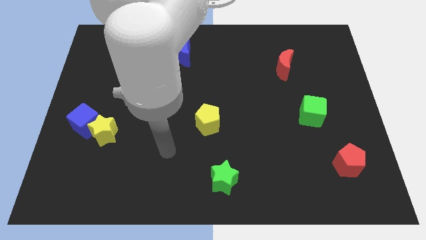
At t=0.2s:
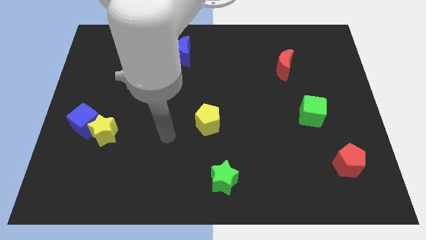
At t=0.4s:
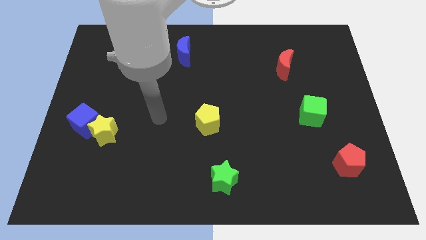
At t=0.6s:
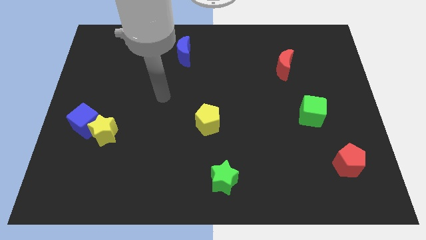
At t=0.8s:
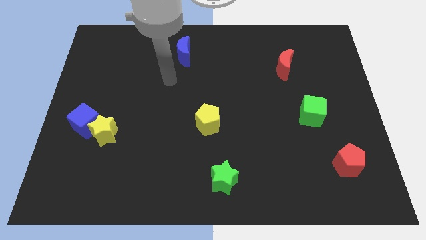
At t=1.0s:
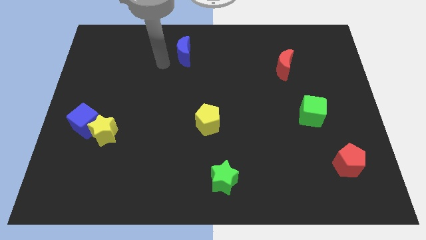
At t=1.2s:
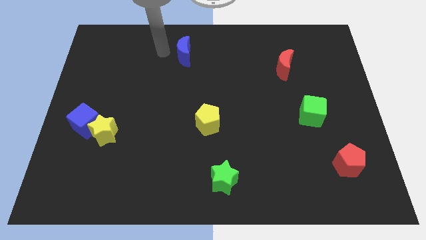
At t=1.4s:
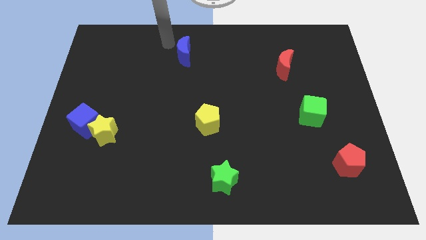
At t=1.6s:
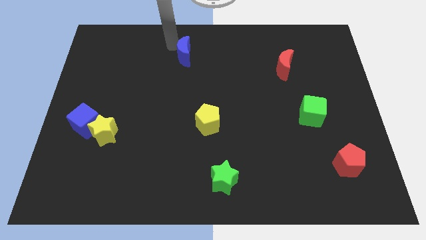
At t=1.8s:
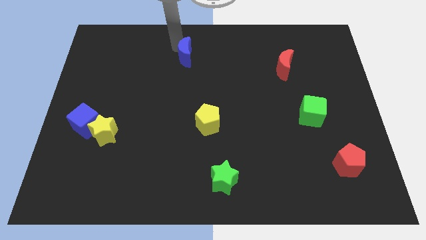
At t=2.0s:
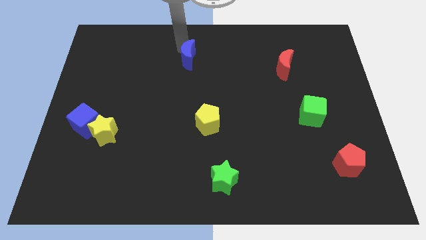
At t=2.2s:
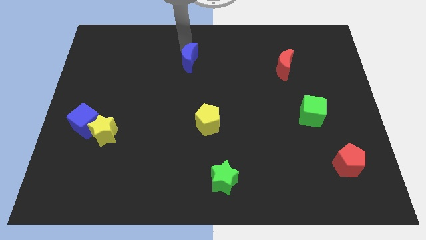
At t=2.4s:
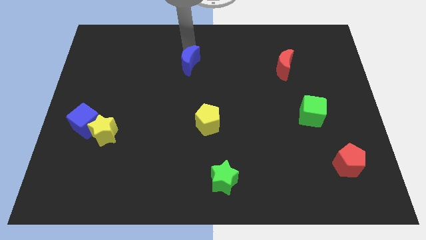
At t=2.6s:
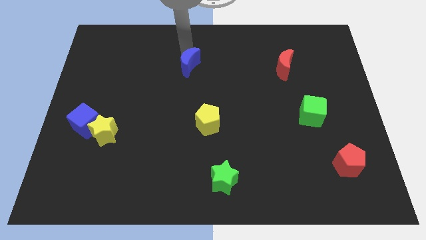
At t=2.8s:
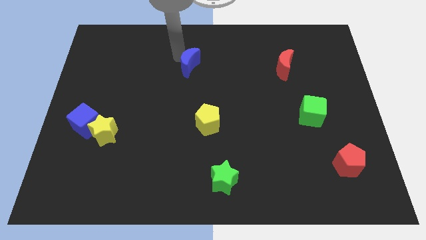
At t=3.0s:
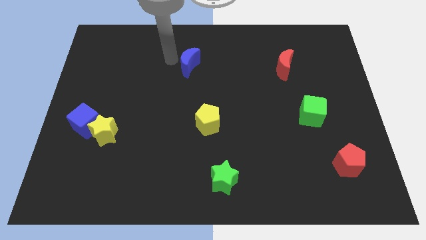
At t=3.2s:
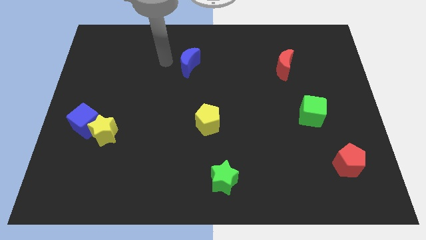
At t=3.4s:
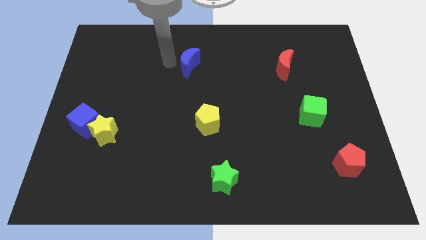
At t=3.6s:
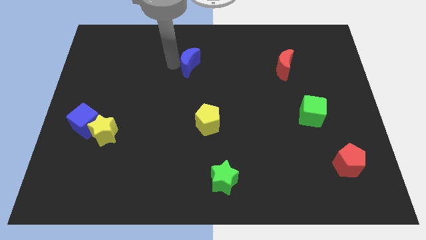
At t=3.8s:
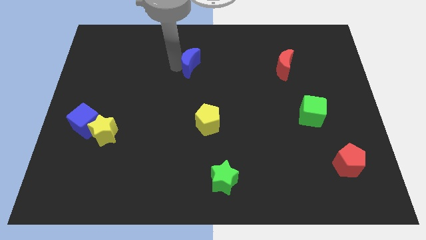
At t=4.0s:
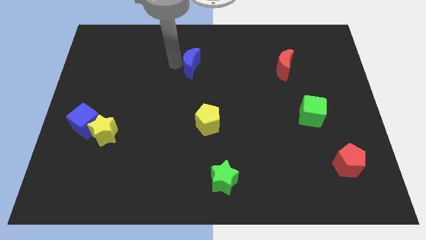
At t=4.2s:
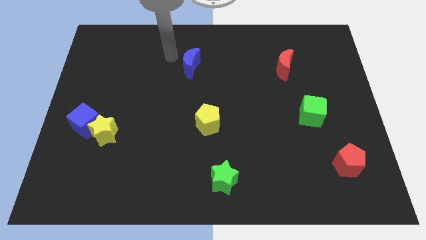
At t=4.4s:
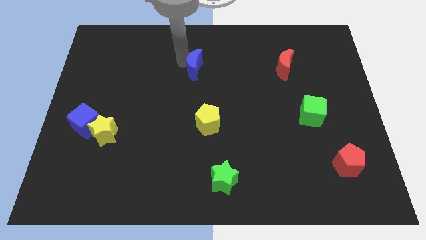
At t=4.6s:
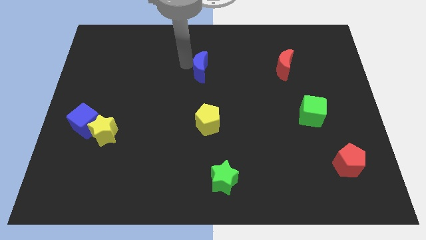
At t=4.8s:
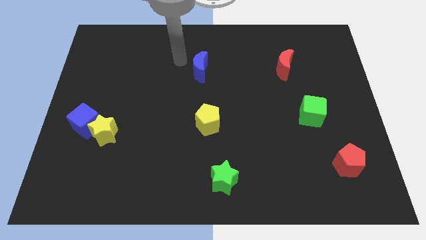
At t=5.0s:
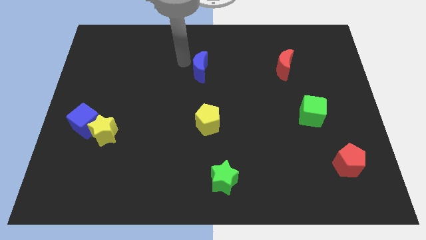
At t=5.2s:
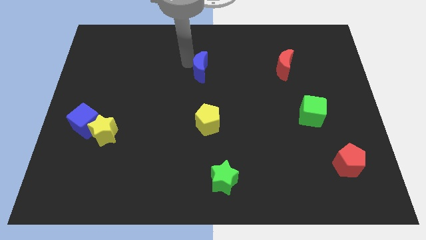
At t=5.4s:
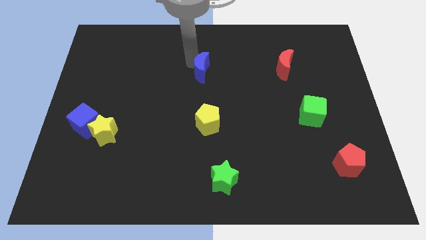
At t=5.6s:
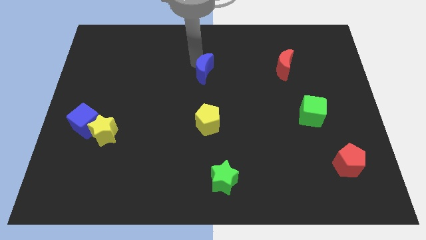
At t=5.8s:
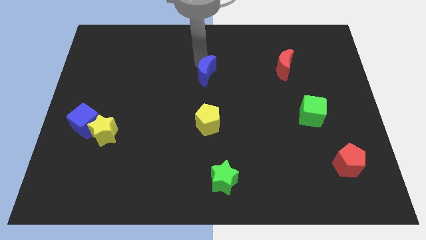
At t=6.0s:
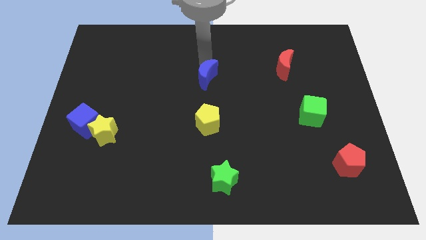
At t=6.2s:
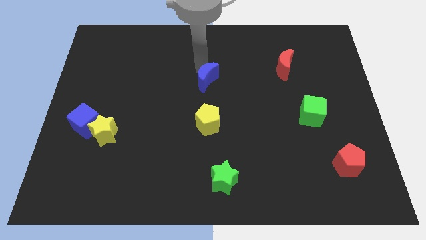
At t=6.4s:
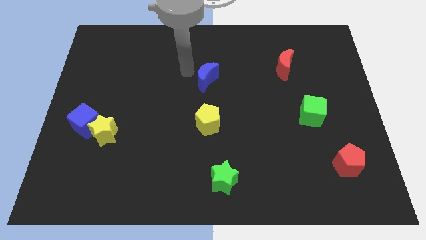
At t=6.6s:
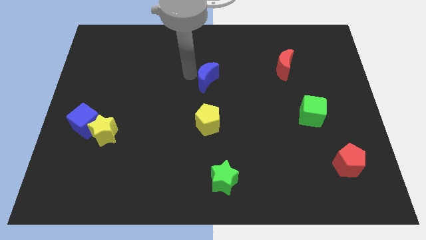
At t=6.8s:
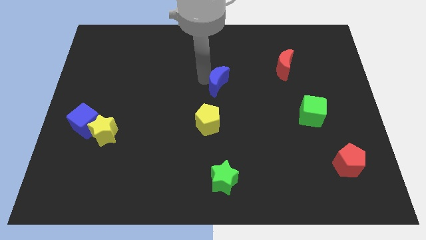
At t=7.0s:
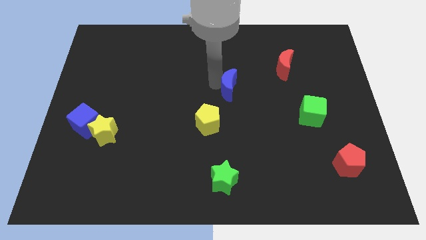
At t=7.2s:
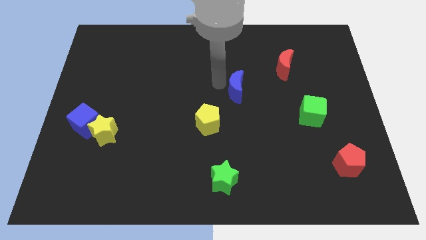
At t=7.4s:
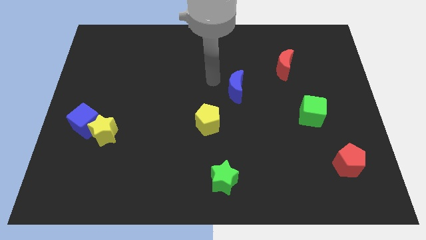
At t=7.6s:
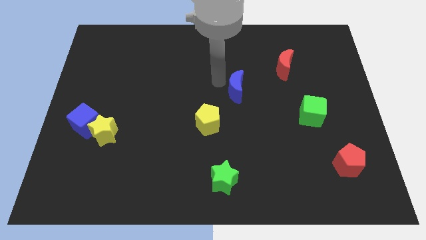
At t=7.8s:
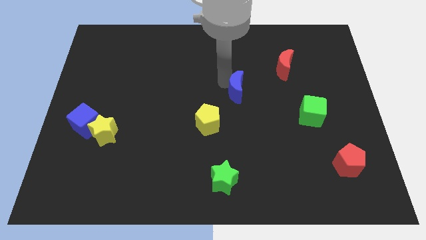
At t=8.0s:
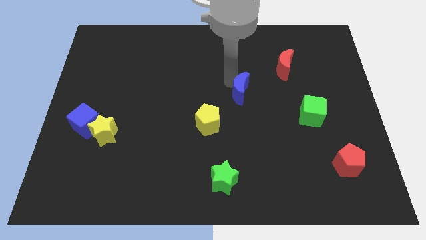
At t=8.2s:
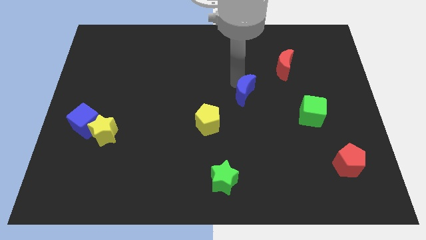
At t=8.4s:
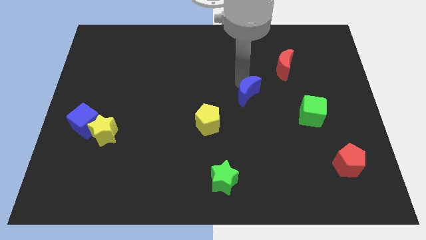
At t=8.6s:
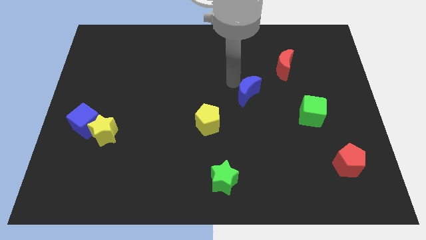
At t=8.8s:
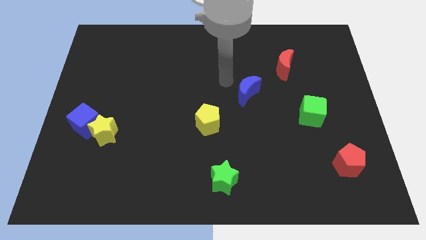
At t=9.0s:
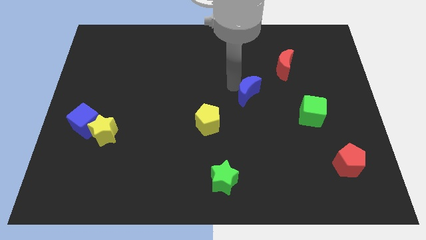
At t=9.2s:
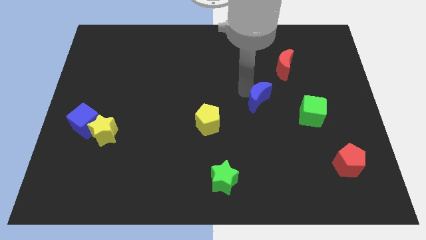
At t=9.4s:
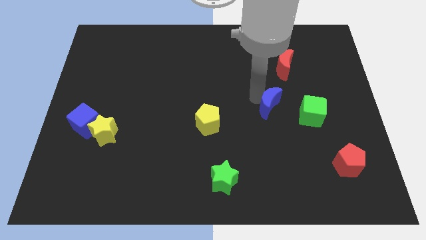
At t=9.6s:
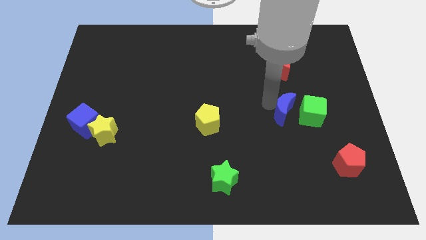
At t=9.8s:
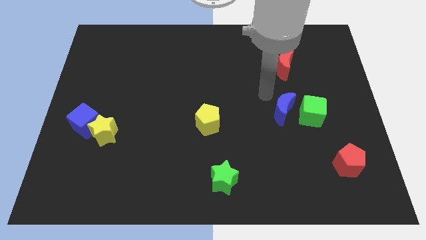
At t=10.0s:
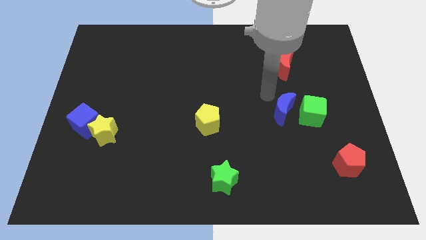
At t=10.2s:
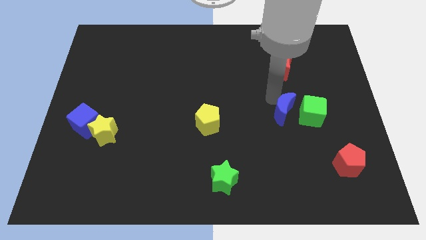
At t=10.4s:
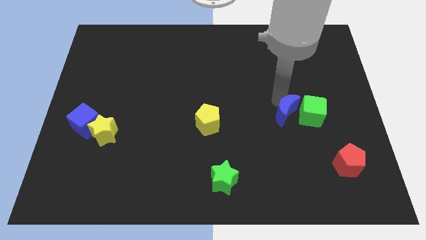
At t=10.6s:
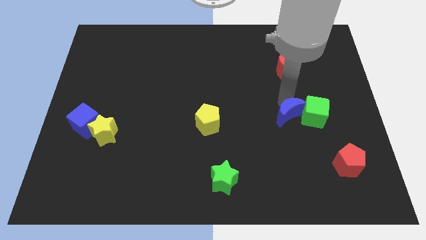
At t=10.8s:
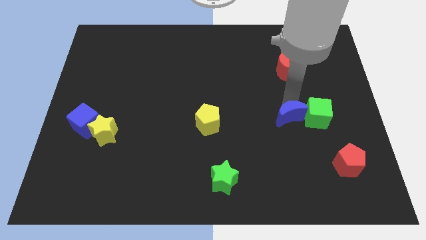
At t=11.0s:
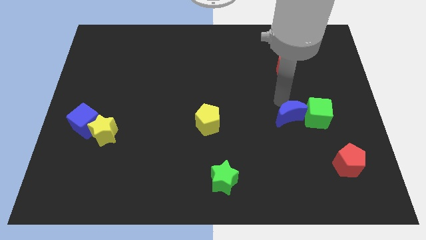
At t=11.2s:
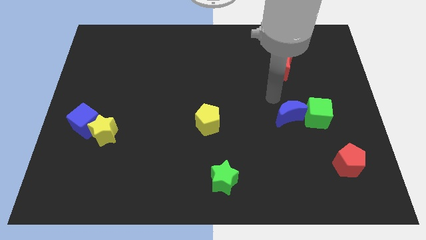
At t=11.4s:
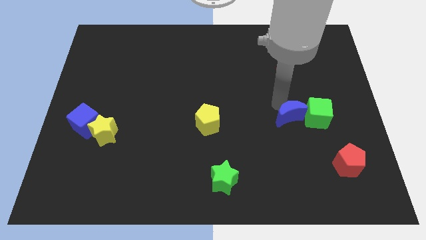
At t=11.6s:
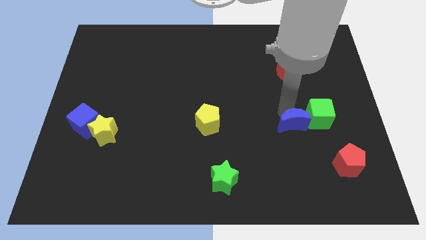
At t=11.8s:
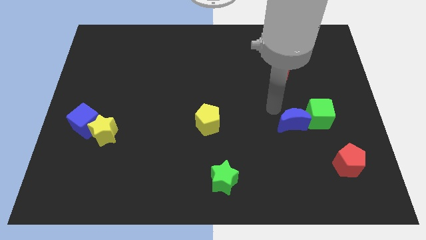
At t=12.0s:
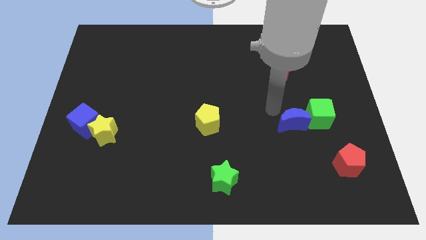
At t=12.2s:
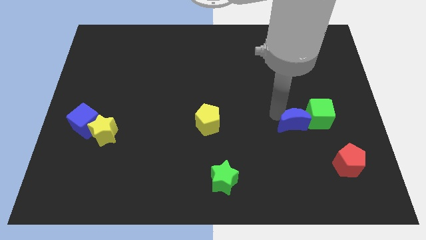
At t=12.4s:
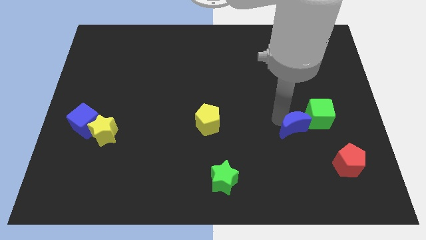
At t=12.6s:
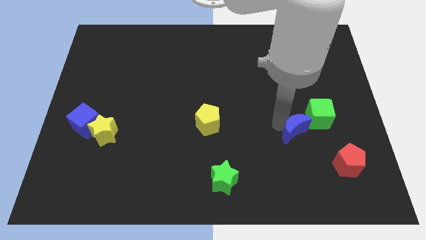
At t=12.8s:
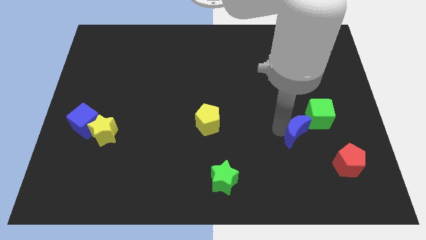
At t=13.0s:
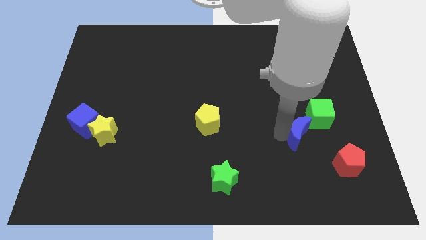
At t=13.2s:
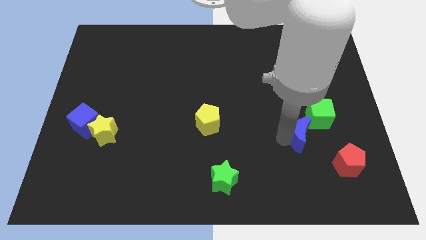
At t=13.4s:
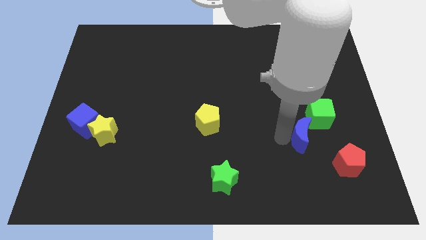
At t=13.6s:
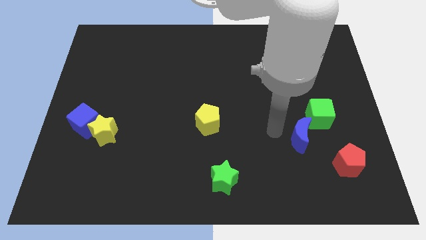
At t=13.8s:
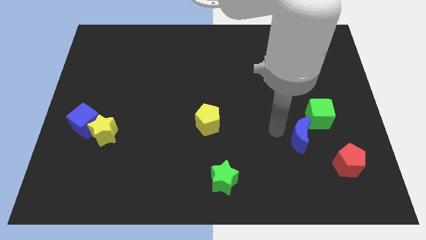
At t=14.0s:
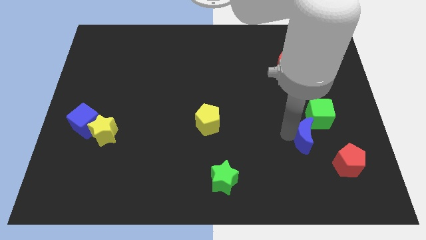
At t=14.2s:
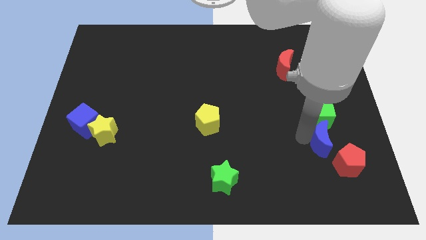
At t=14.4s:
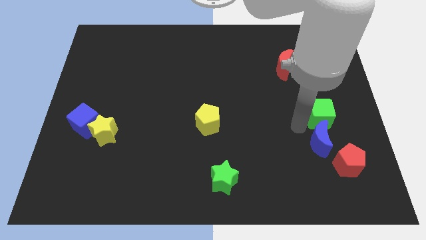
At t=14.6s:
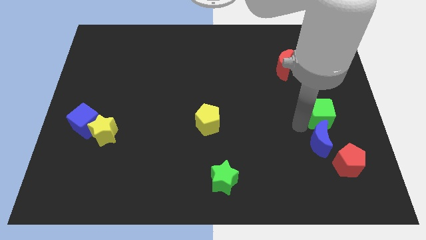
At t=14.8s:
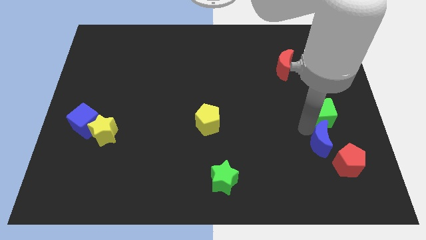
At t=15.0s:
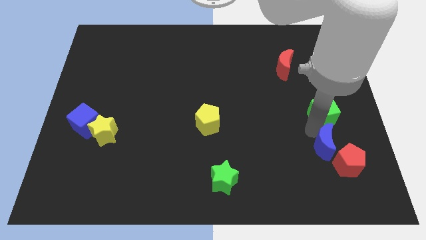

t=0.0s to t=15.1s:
move the blue moon towards the red pentagon
